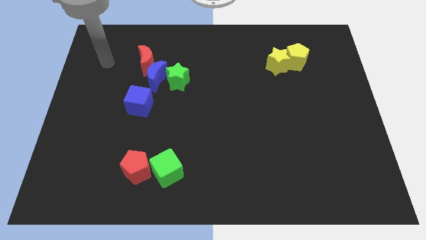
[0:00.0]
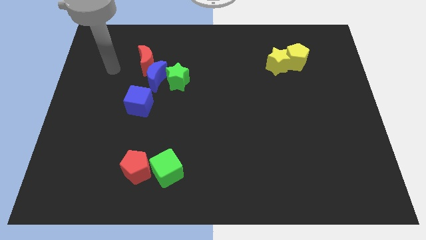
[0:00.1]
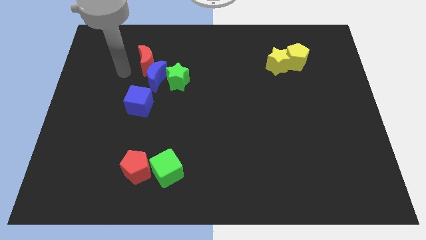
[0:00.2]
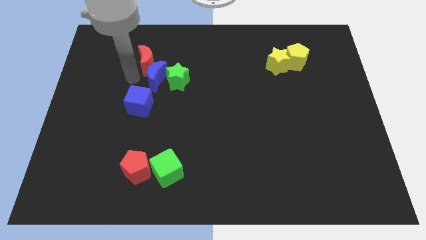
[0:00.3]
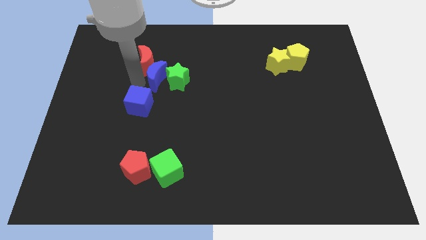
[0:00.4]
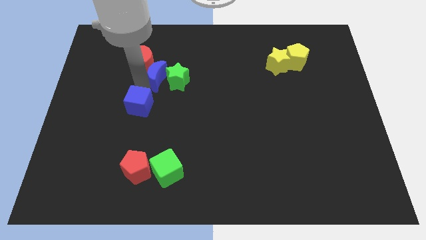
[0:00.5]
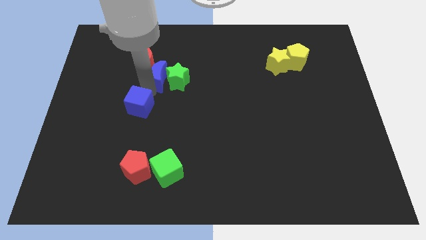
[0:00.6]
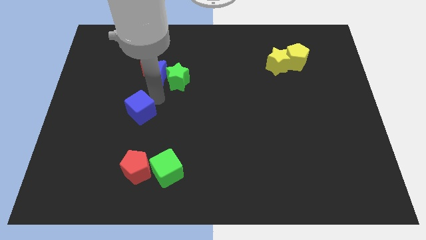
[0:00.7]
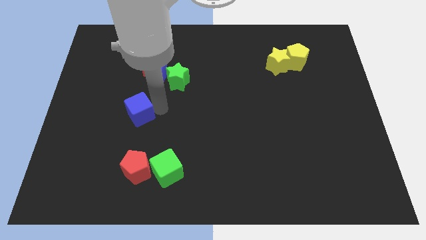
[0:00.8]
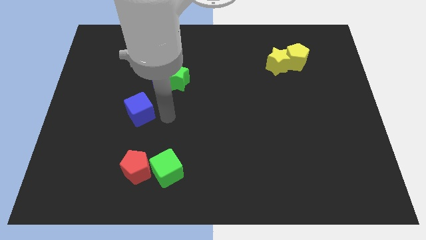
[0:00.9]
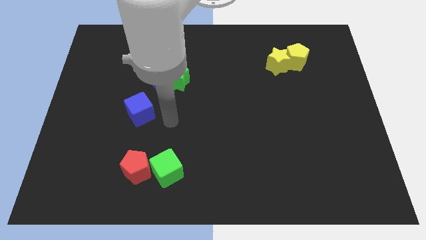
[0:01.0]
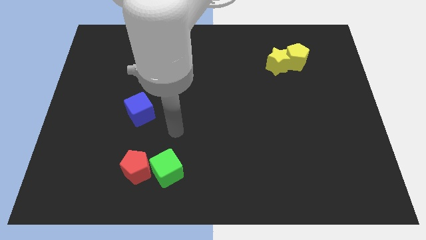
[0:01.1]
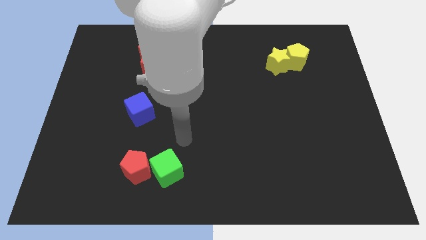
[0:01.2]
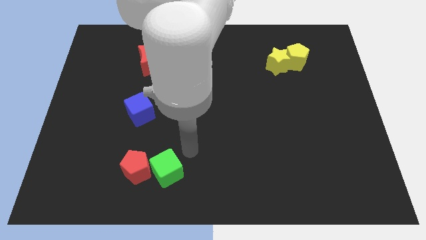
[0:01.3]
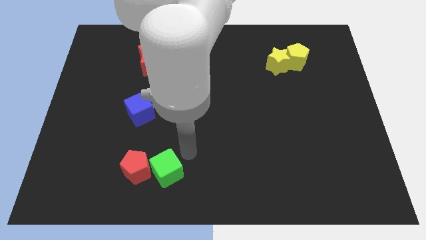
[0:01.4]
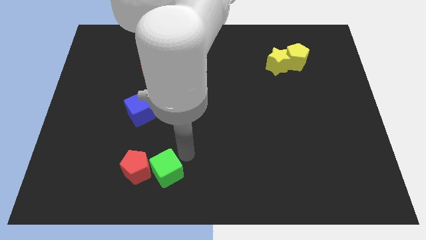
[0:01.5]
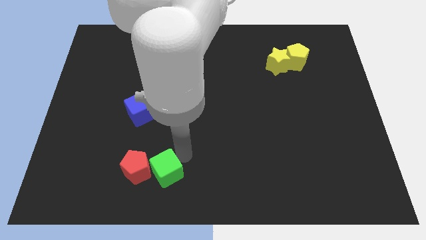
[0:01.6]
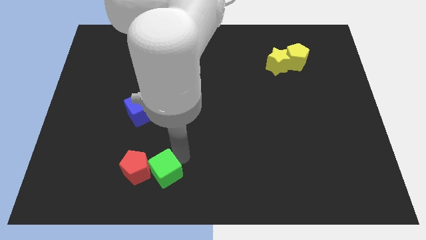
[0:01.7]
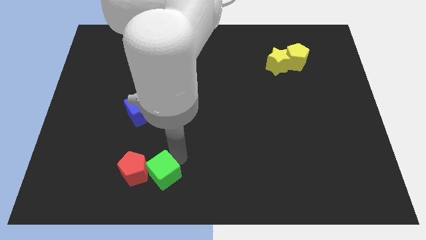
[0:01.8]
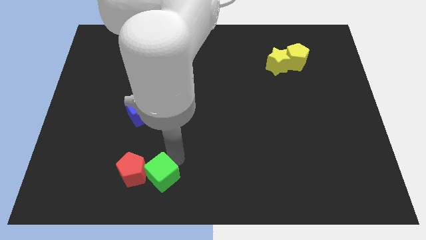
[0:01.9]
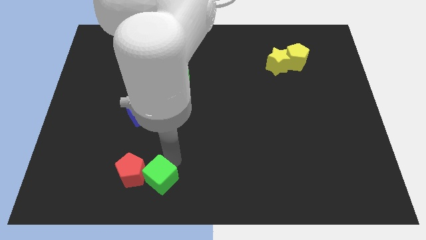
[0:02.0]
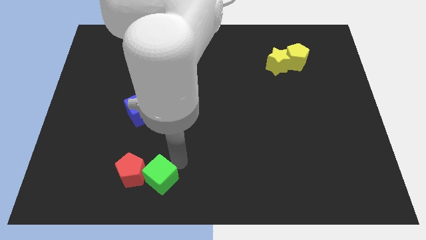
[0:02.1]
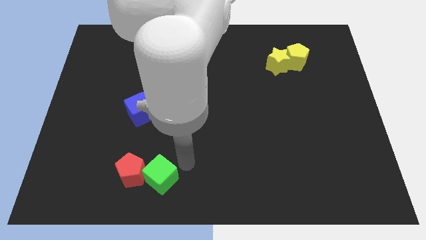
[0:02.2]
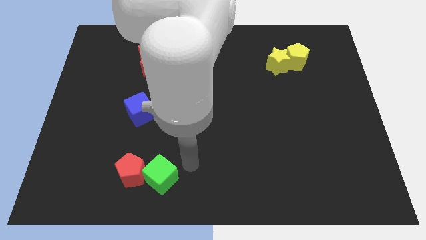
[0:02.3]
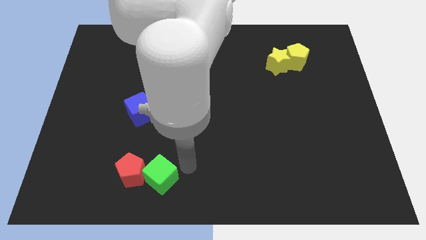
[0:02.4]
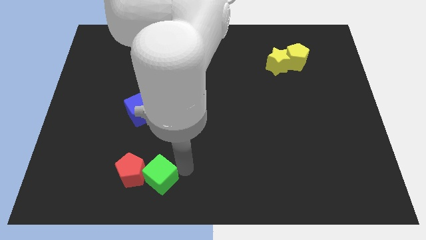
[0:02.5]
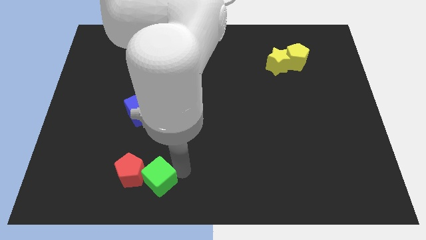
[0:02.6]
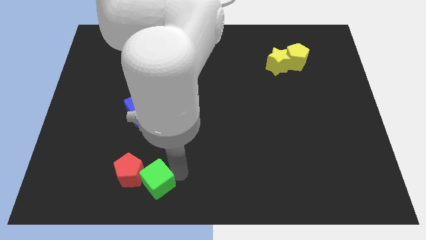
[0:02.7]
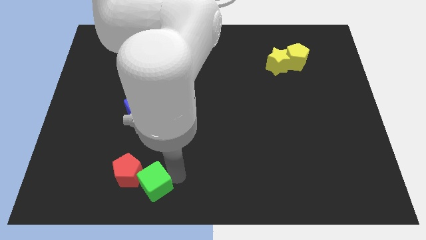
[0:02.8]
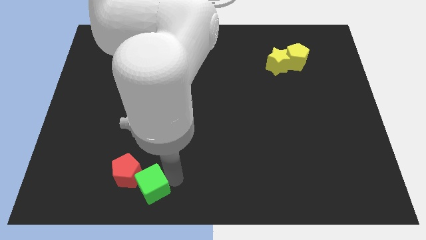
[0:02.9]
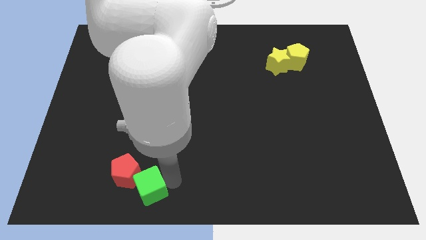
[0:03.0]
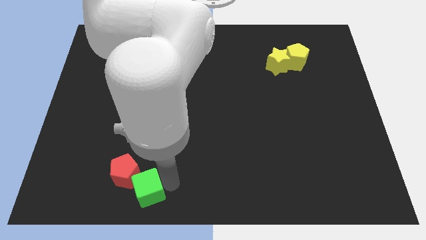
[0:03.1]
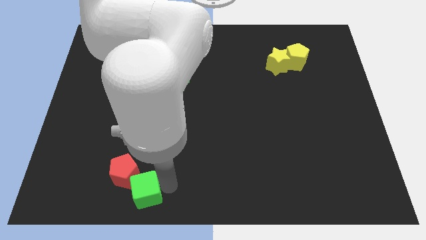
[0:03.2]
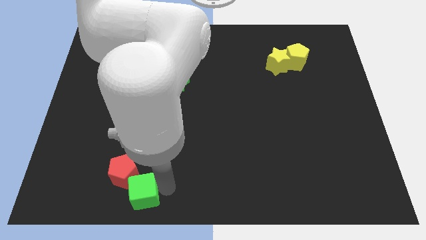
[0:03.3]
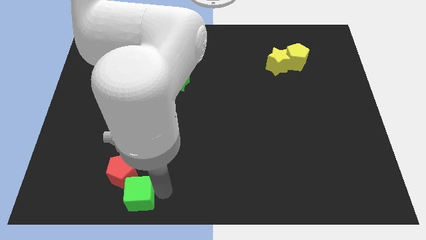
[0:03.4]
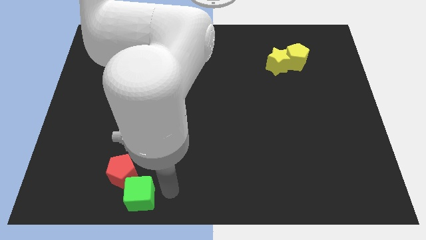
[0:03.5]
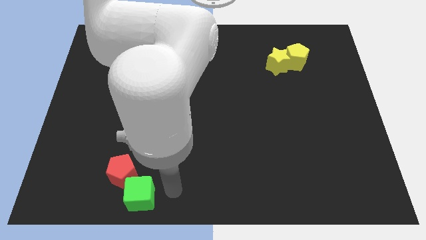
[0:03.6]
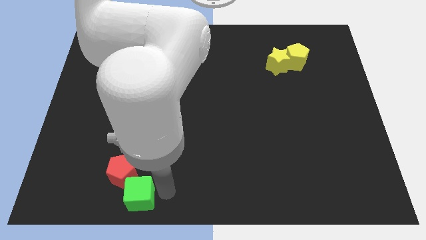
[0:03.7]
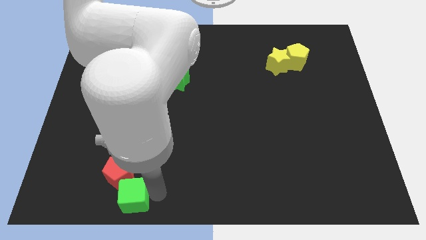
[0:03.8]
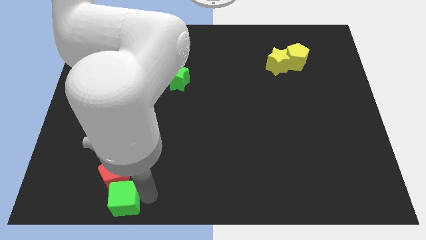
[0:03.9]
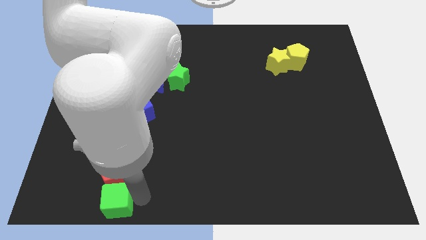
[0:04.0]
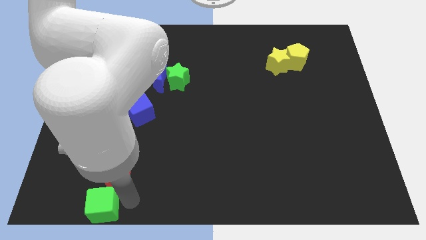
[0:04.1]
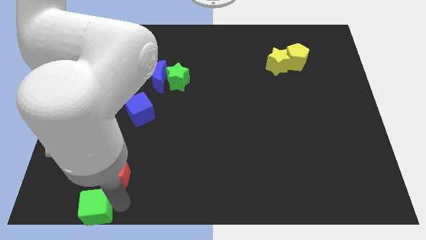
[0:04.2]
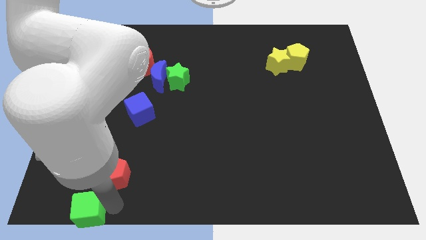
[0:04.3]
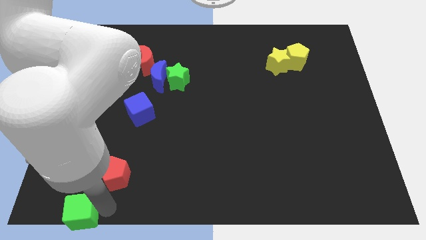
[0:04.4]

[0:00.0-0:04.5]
put the green cube to the bottom left of the board

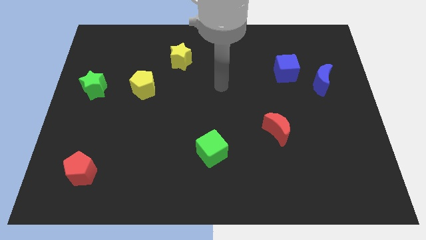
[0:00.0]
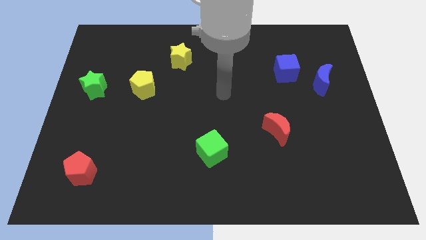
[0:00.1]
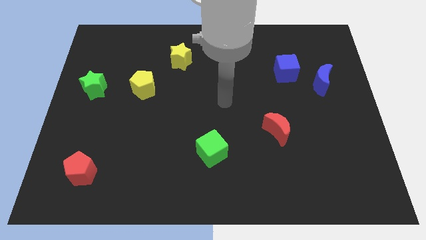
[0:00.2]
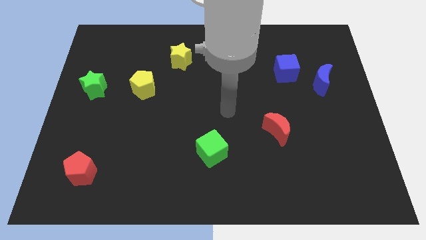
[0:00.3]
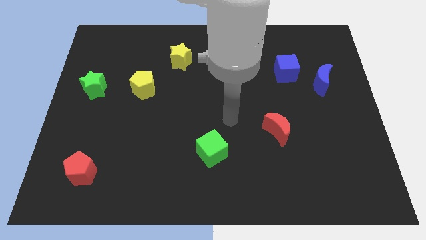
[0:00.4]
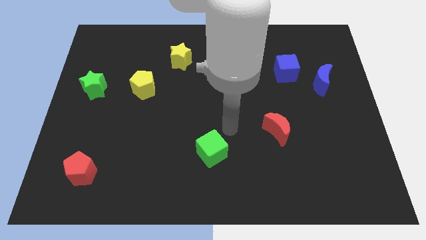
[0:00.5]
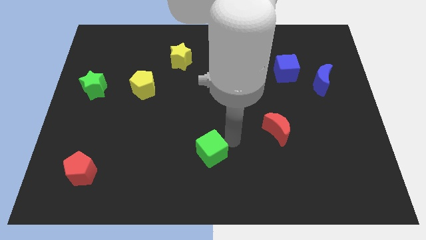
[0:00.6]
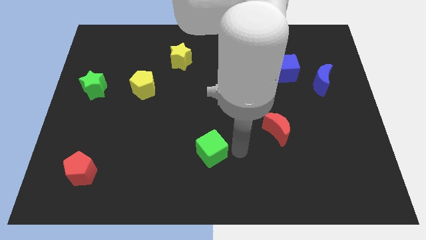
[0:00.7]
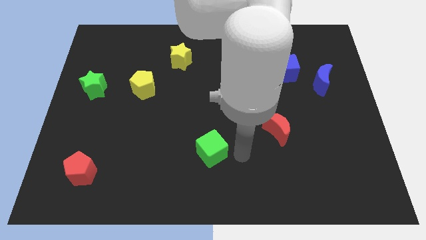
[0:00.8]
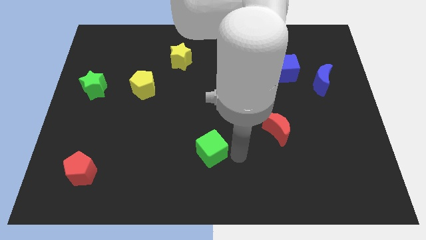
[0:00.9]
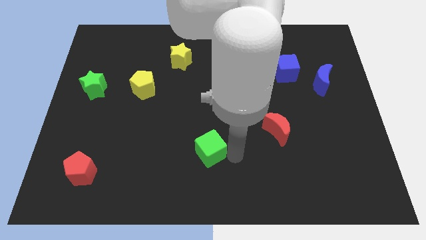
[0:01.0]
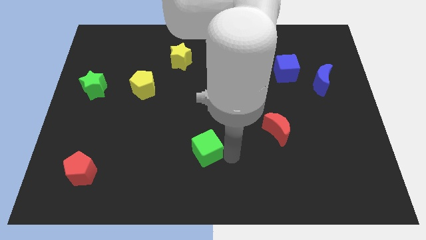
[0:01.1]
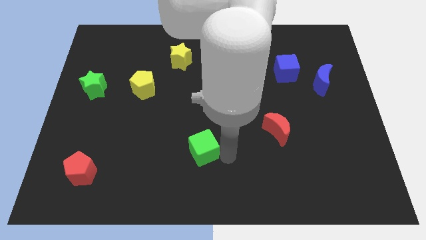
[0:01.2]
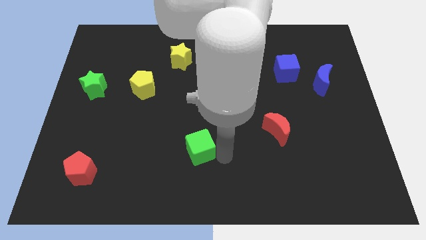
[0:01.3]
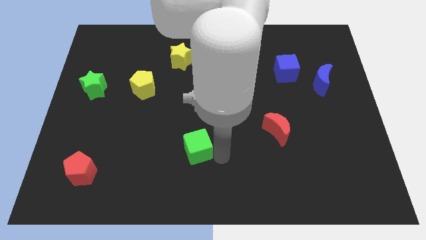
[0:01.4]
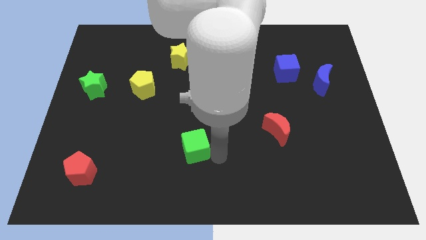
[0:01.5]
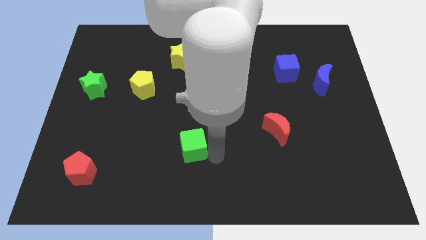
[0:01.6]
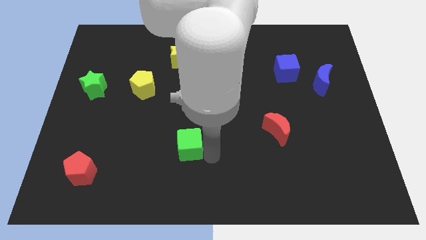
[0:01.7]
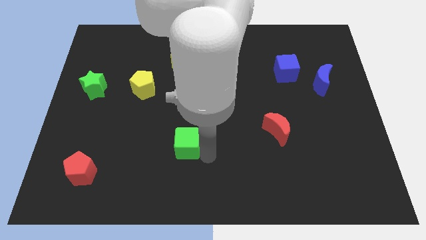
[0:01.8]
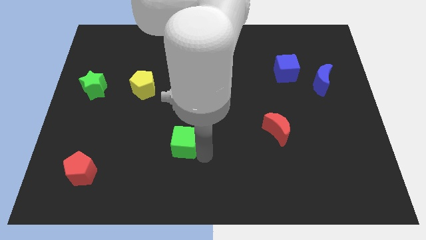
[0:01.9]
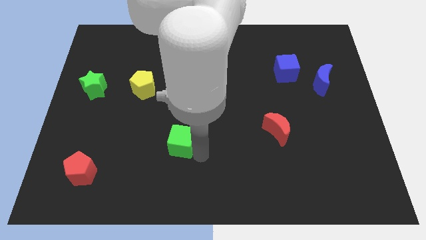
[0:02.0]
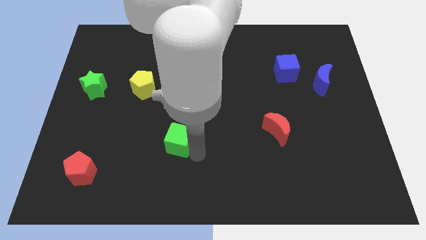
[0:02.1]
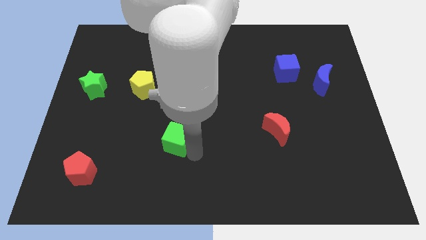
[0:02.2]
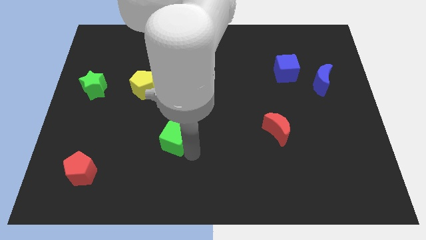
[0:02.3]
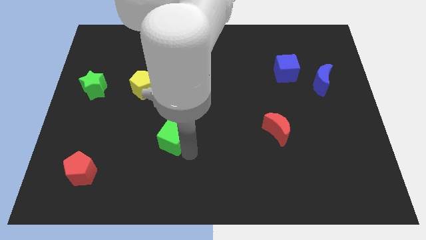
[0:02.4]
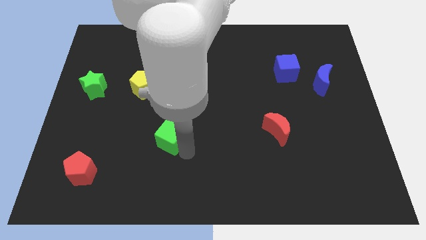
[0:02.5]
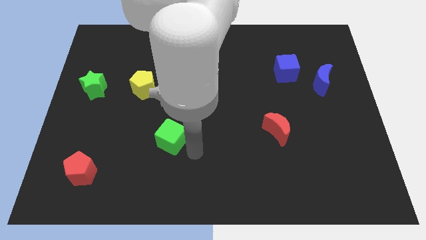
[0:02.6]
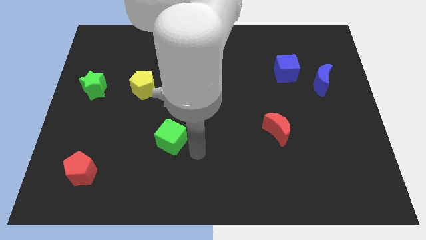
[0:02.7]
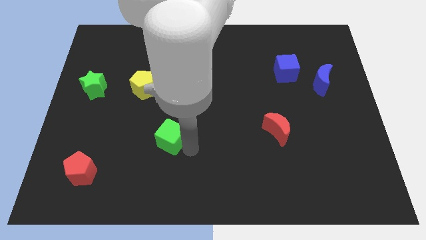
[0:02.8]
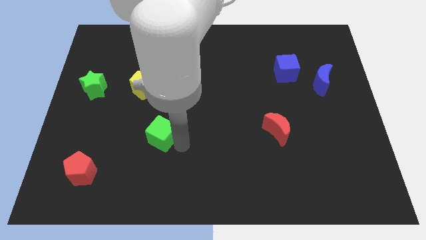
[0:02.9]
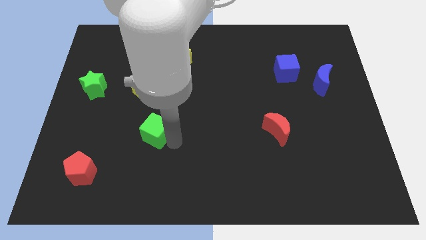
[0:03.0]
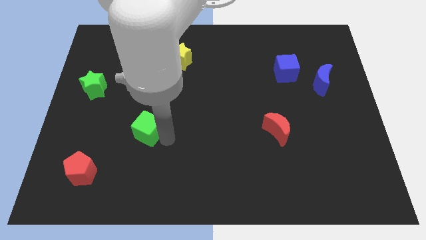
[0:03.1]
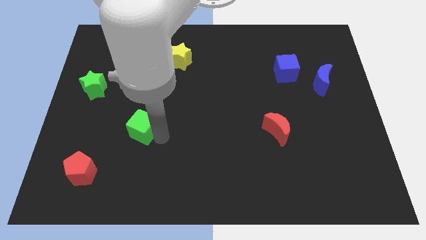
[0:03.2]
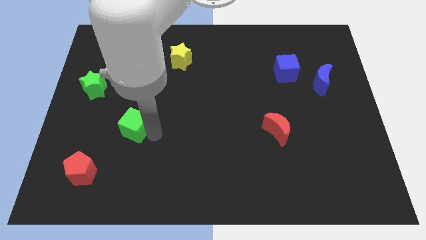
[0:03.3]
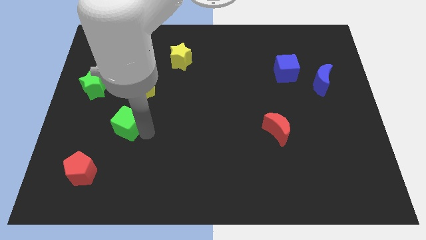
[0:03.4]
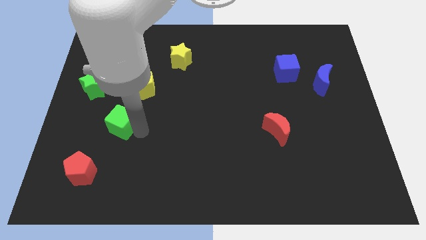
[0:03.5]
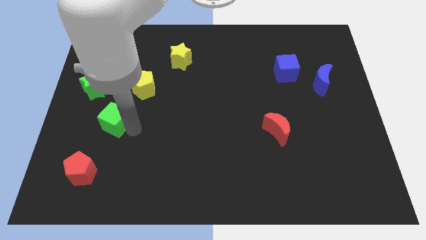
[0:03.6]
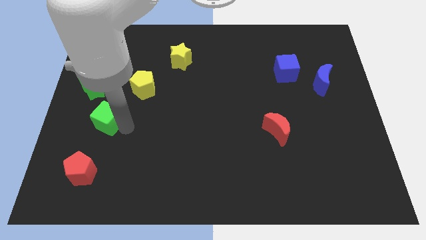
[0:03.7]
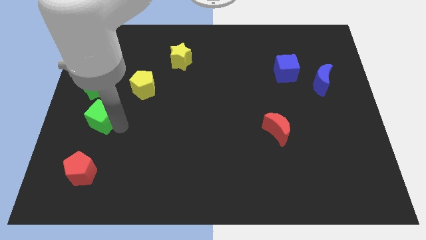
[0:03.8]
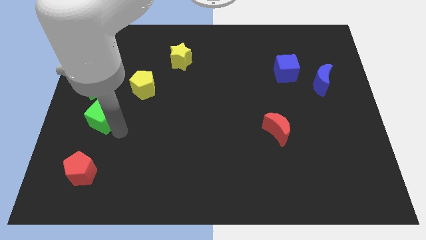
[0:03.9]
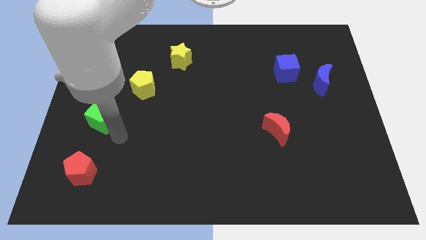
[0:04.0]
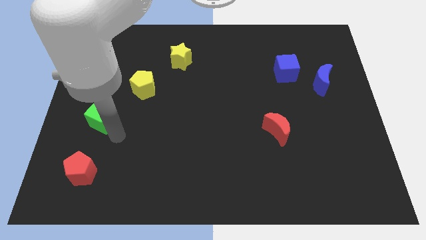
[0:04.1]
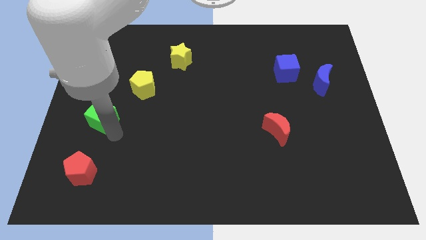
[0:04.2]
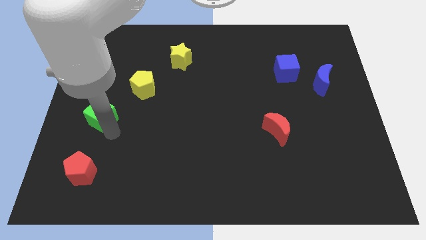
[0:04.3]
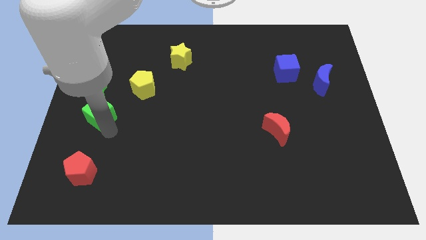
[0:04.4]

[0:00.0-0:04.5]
put the green cube to the left side
